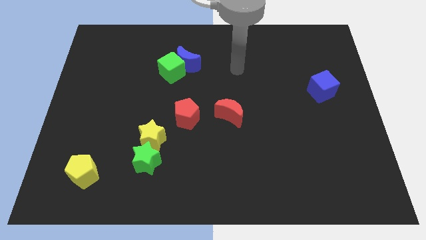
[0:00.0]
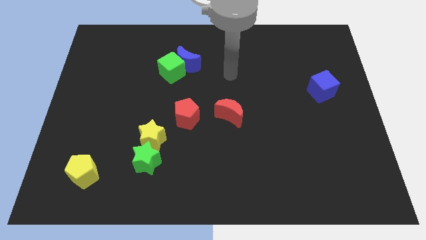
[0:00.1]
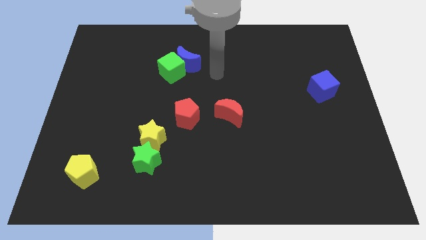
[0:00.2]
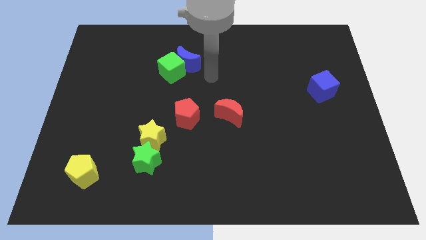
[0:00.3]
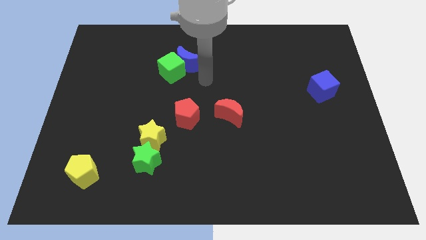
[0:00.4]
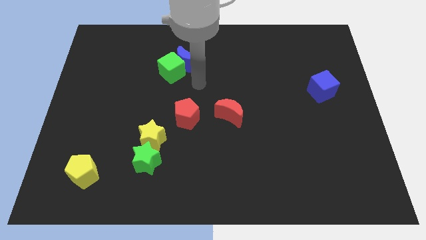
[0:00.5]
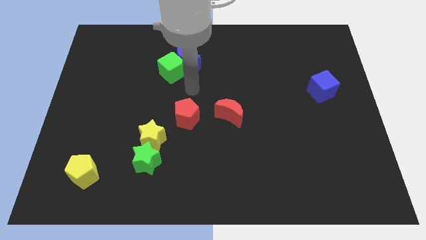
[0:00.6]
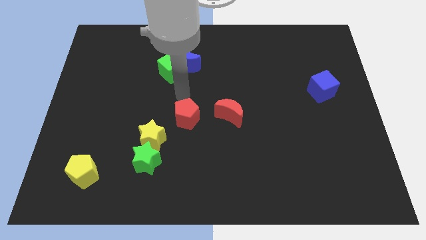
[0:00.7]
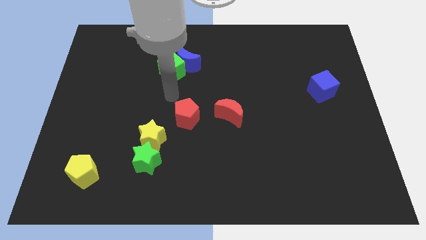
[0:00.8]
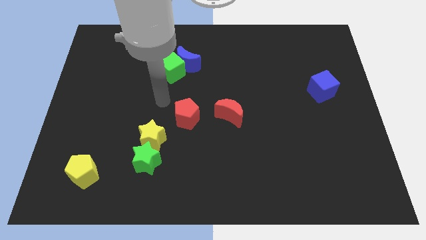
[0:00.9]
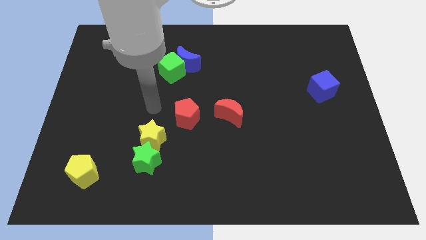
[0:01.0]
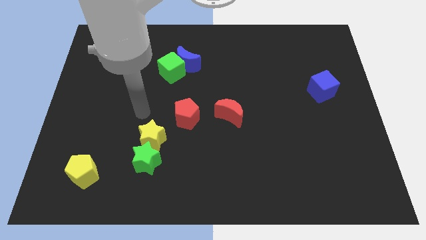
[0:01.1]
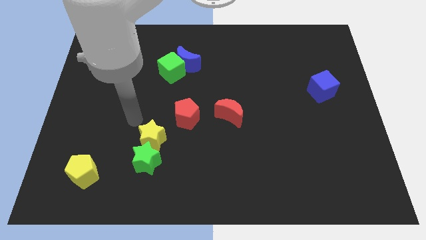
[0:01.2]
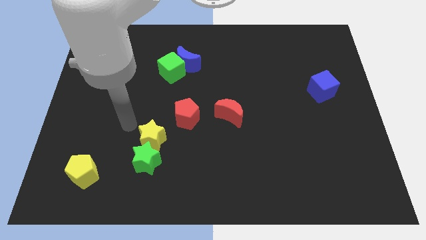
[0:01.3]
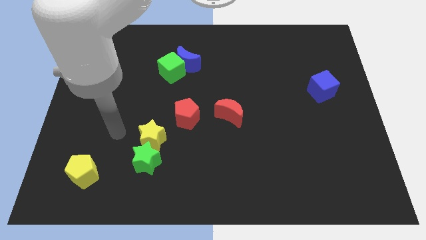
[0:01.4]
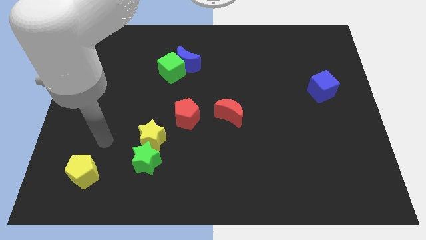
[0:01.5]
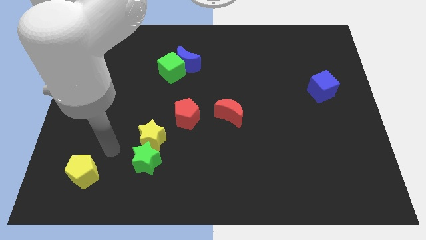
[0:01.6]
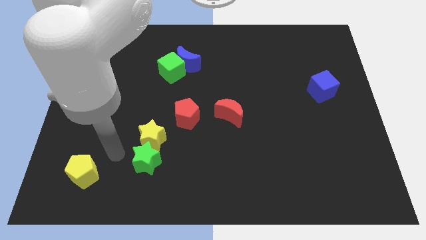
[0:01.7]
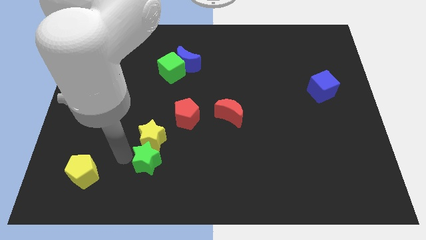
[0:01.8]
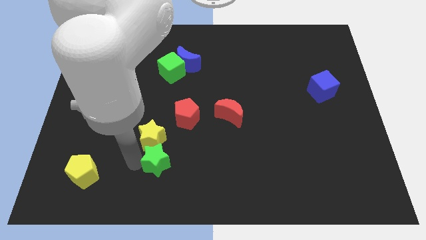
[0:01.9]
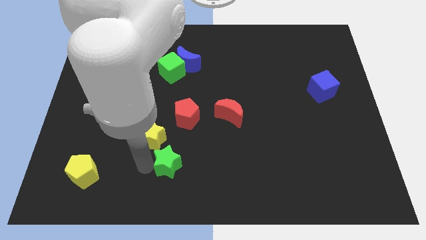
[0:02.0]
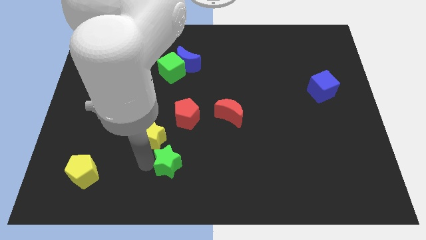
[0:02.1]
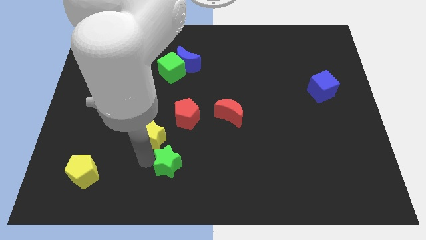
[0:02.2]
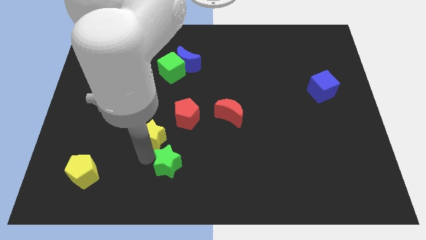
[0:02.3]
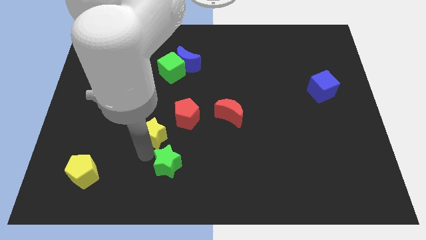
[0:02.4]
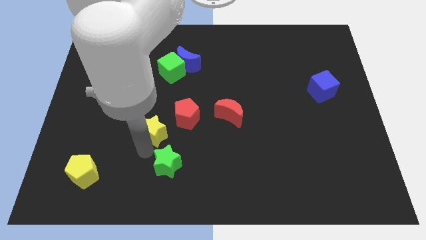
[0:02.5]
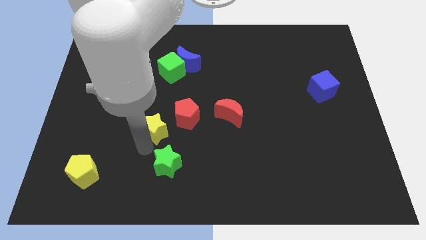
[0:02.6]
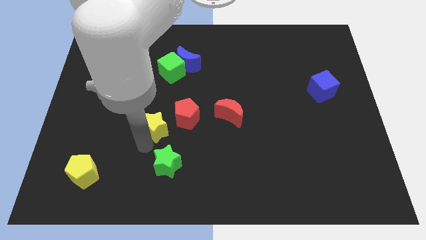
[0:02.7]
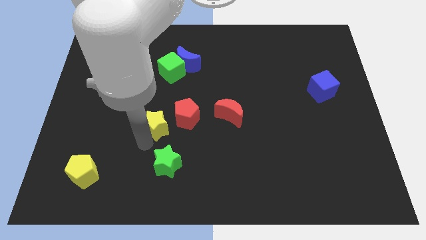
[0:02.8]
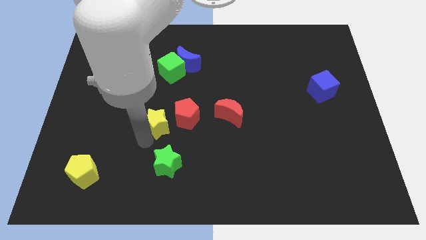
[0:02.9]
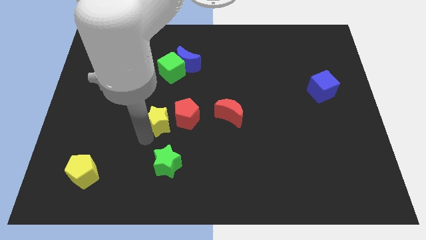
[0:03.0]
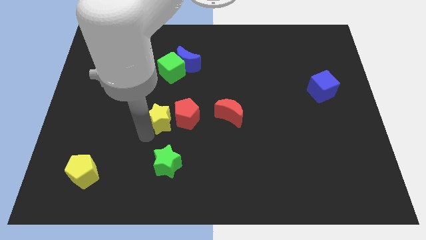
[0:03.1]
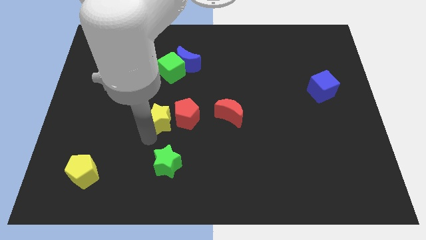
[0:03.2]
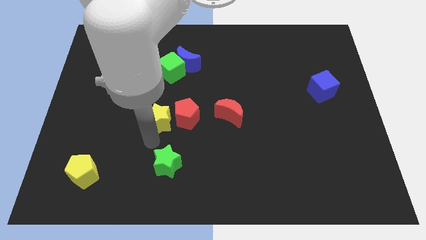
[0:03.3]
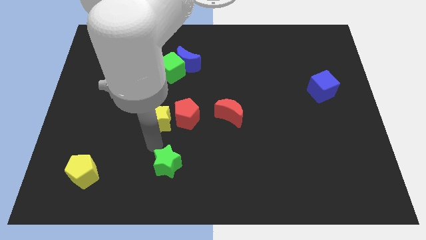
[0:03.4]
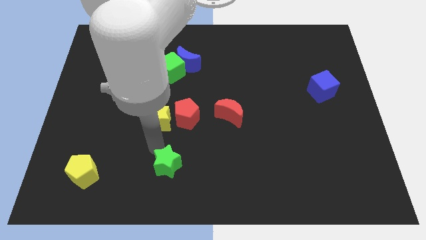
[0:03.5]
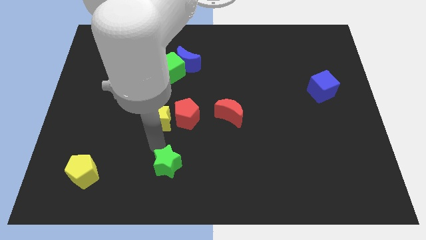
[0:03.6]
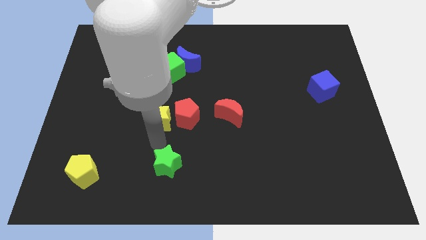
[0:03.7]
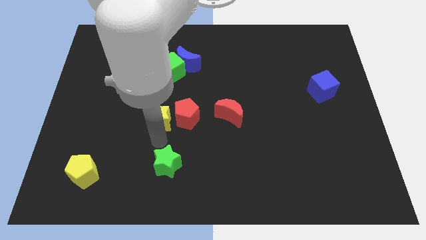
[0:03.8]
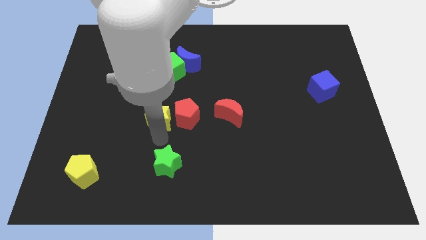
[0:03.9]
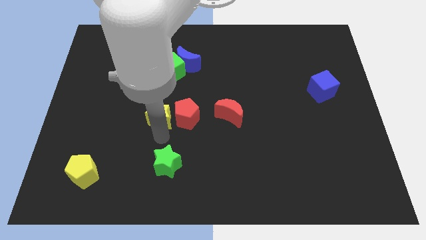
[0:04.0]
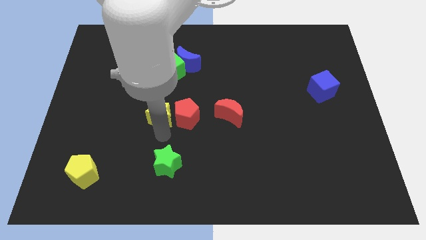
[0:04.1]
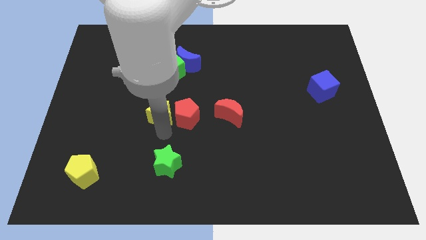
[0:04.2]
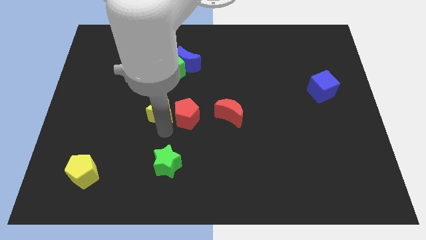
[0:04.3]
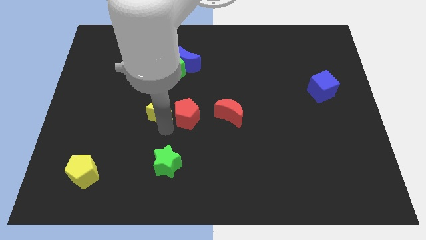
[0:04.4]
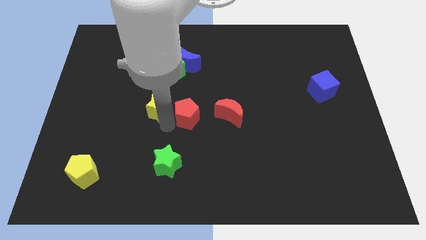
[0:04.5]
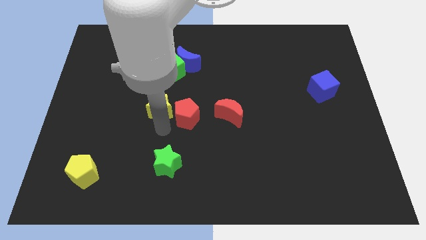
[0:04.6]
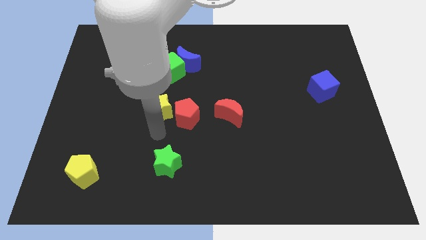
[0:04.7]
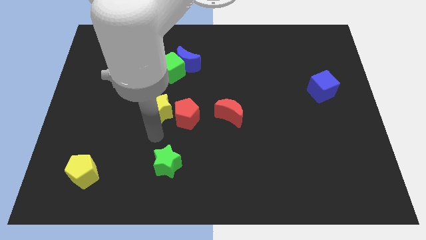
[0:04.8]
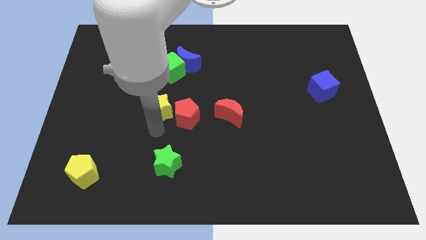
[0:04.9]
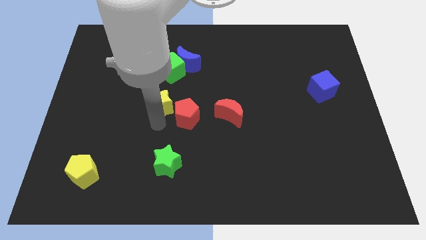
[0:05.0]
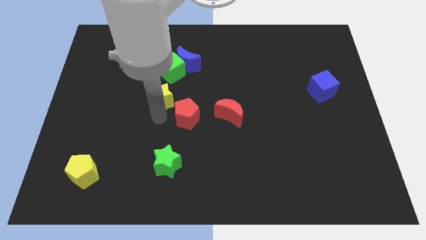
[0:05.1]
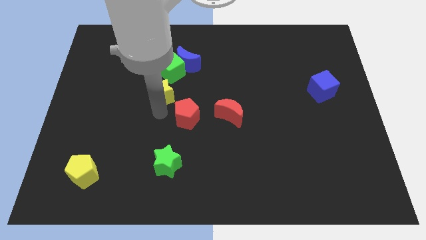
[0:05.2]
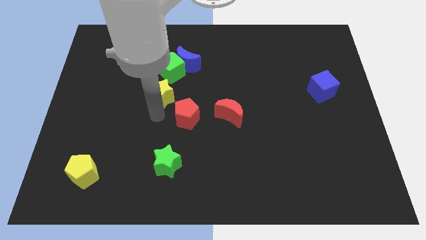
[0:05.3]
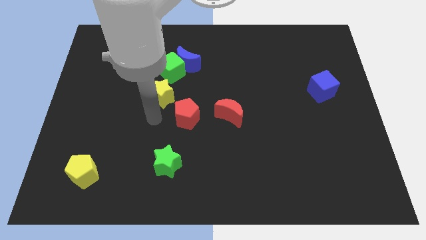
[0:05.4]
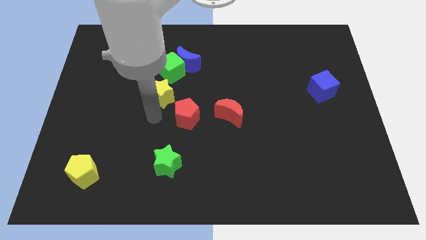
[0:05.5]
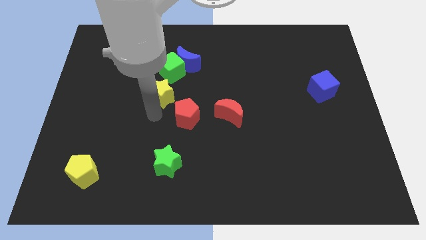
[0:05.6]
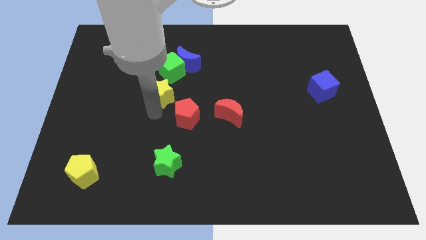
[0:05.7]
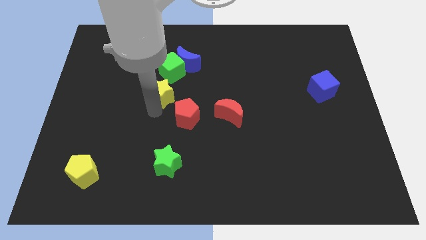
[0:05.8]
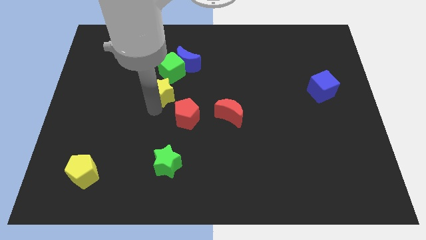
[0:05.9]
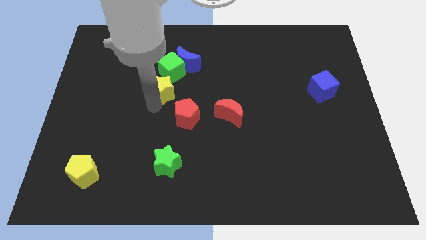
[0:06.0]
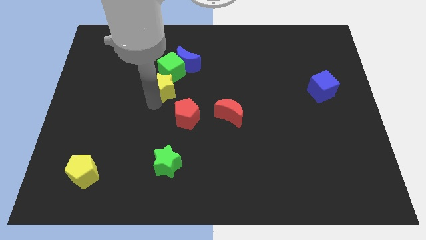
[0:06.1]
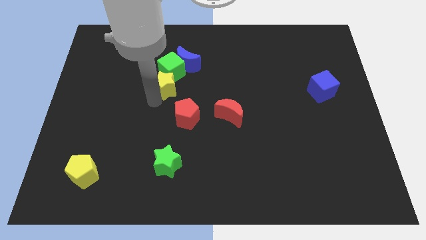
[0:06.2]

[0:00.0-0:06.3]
push the yellow star to the green cube
